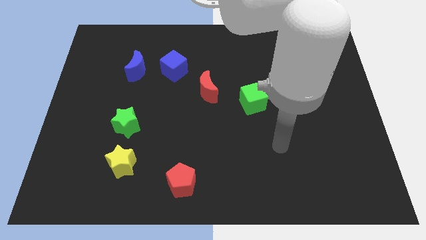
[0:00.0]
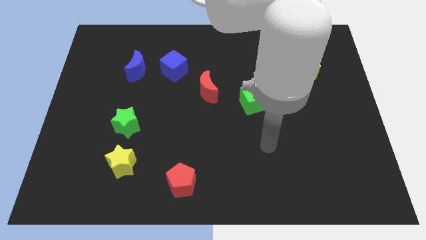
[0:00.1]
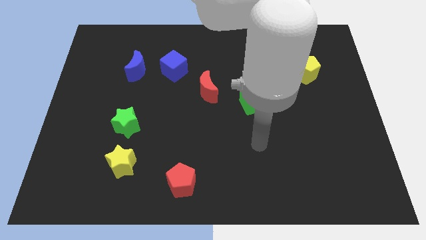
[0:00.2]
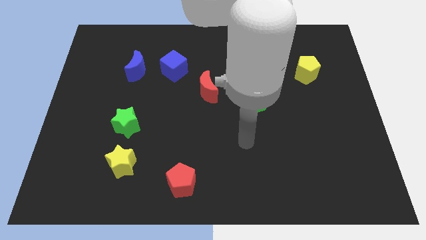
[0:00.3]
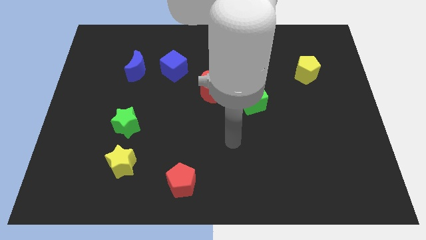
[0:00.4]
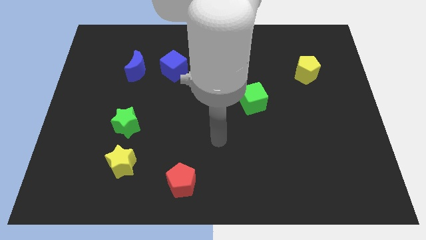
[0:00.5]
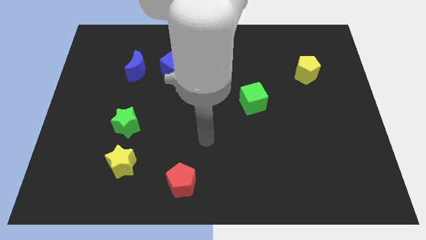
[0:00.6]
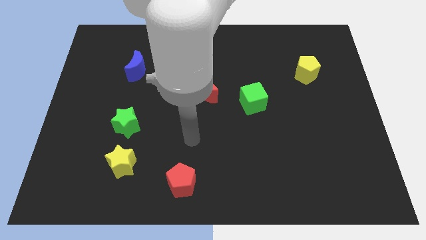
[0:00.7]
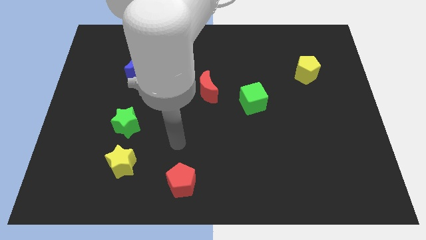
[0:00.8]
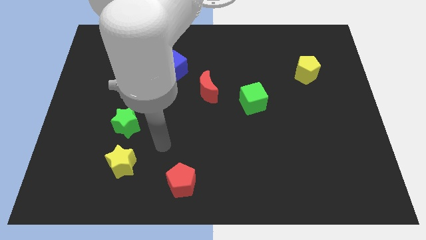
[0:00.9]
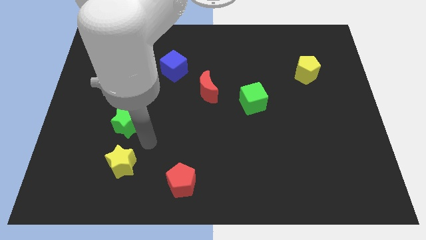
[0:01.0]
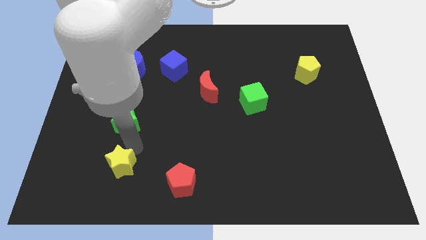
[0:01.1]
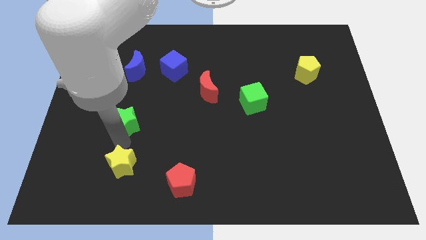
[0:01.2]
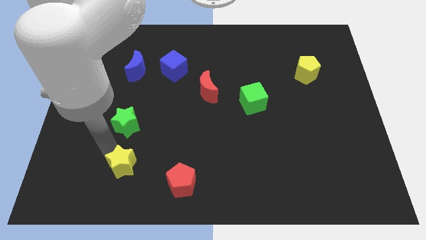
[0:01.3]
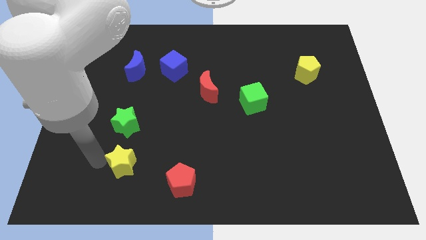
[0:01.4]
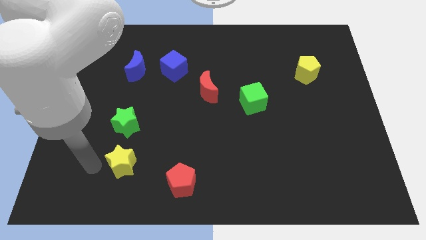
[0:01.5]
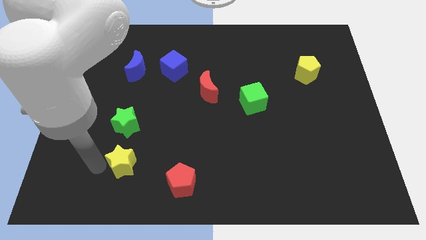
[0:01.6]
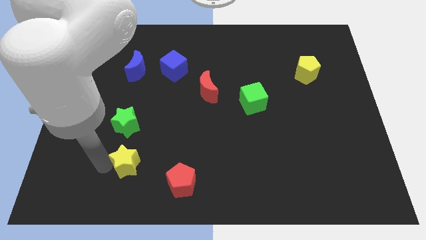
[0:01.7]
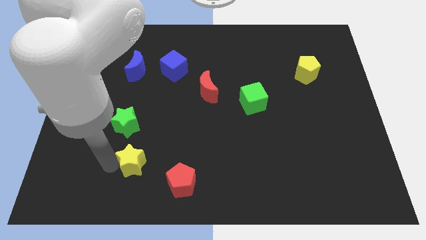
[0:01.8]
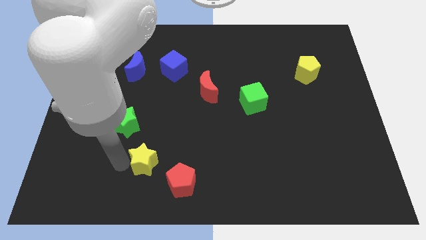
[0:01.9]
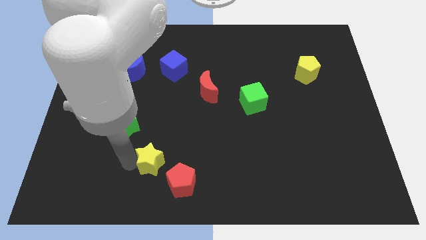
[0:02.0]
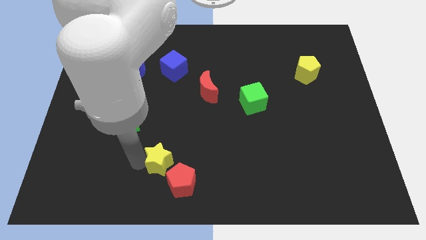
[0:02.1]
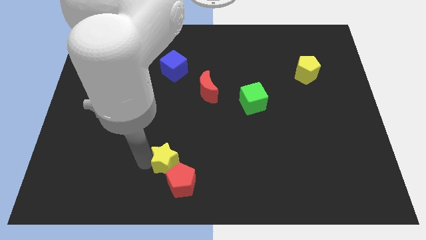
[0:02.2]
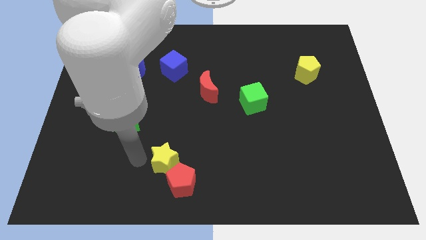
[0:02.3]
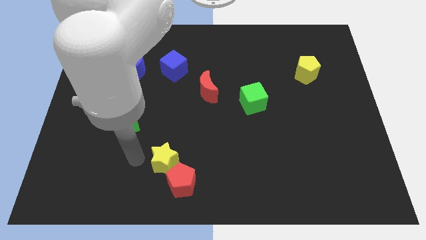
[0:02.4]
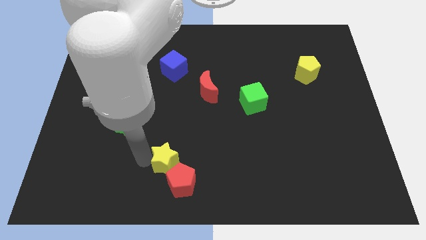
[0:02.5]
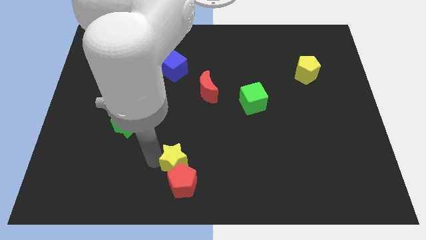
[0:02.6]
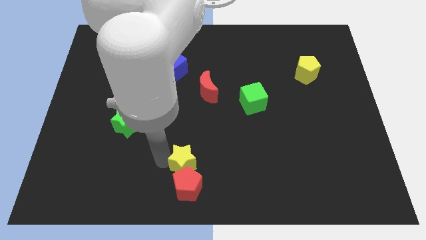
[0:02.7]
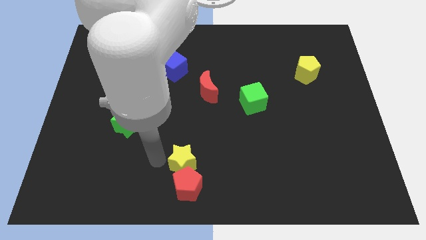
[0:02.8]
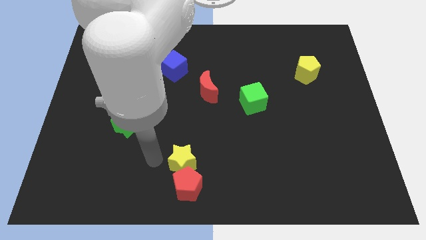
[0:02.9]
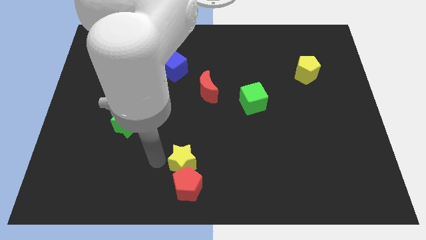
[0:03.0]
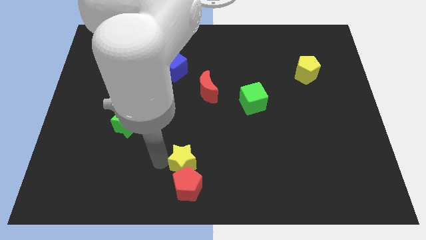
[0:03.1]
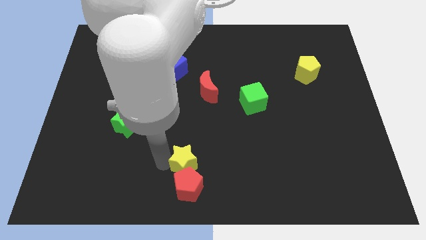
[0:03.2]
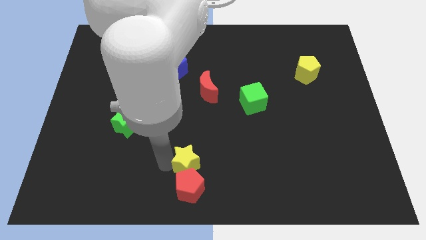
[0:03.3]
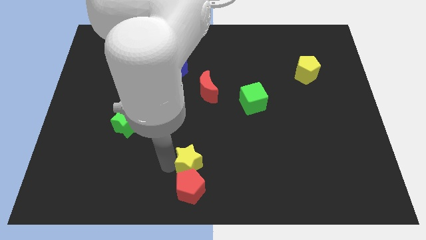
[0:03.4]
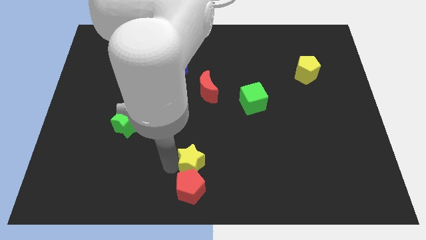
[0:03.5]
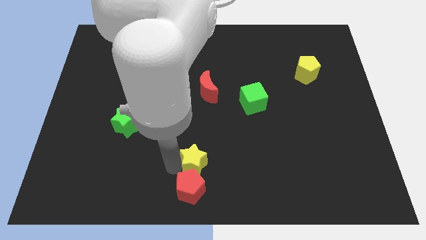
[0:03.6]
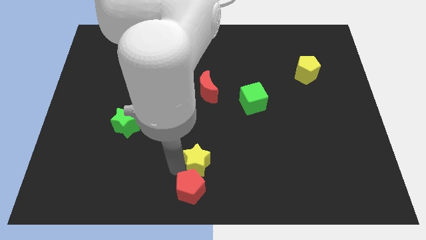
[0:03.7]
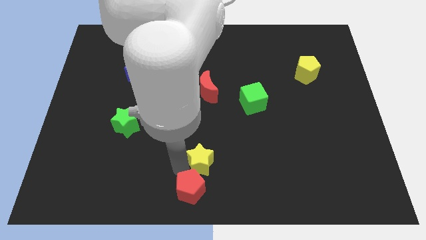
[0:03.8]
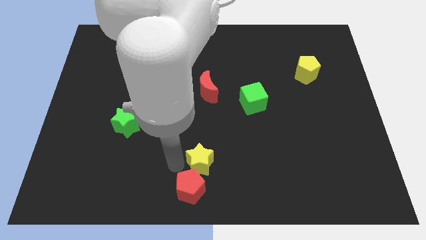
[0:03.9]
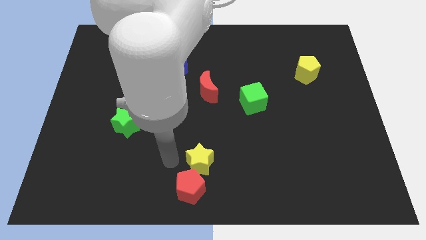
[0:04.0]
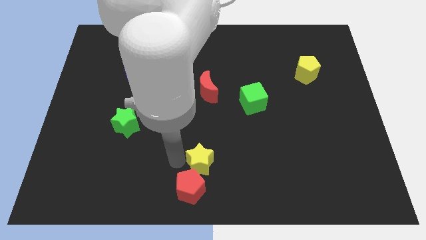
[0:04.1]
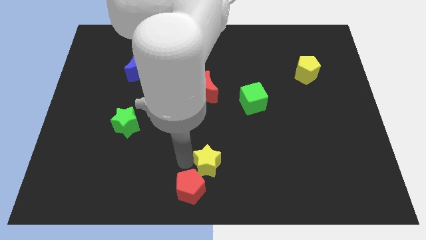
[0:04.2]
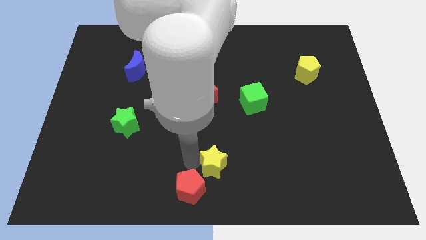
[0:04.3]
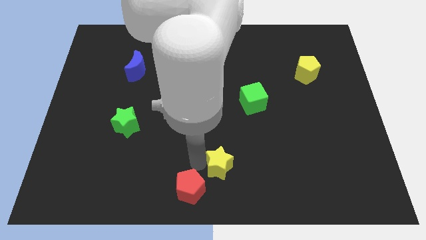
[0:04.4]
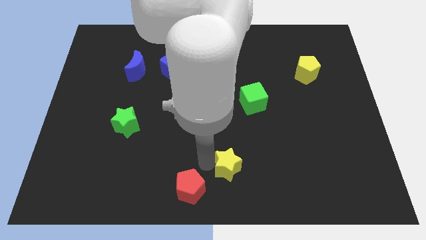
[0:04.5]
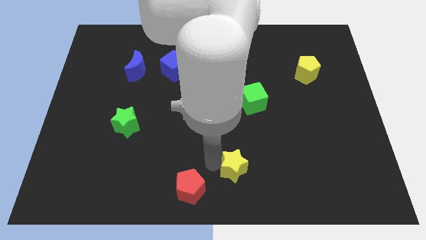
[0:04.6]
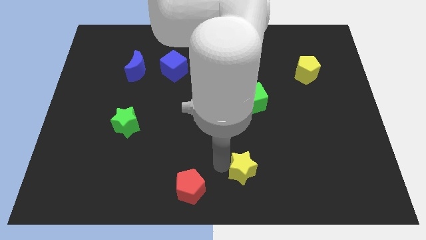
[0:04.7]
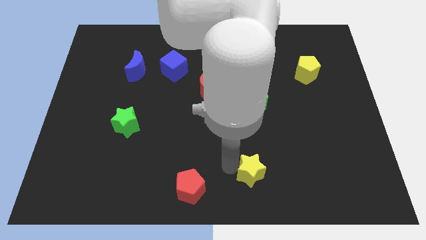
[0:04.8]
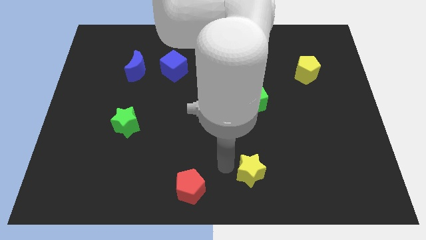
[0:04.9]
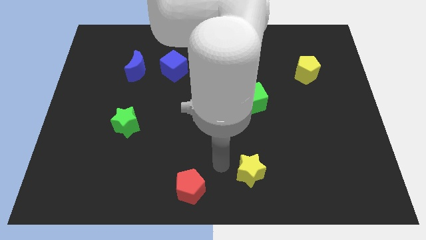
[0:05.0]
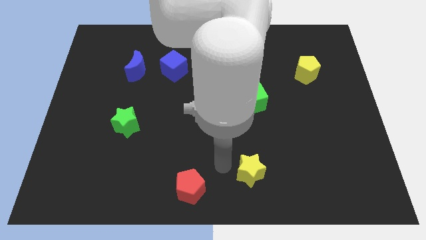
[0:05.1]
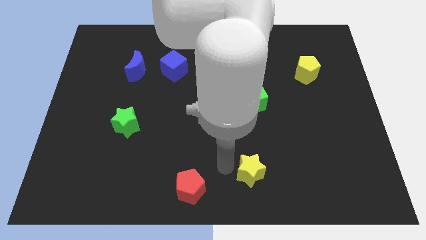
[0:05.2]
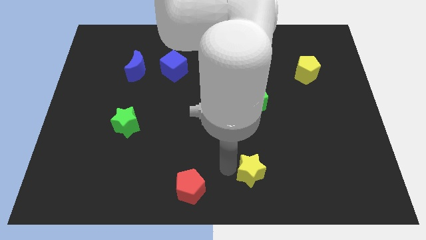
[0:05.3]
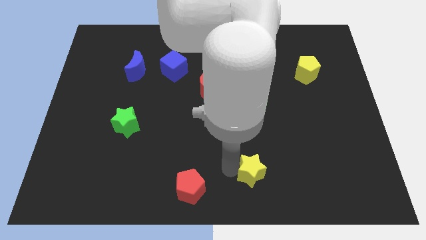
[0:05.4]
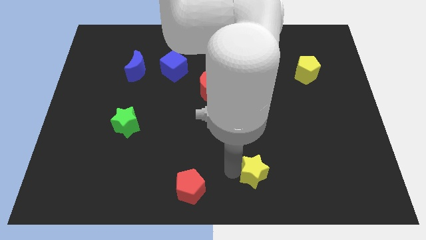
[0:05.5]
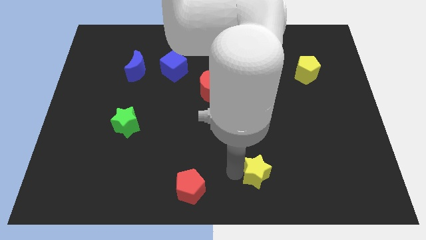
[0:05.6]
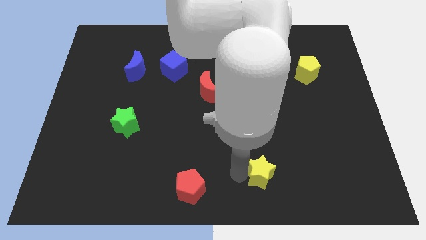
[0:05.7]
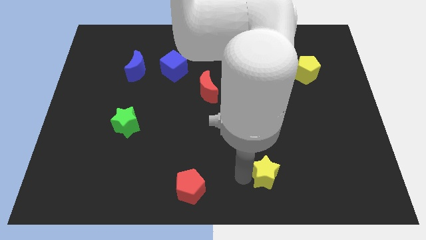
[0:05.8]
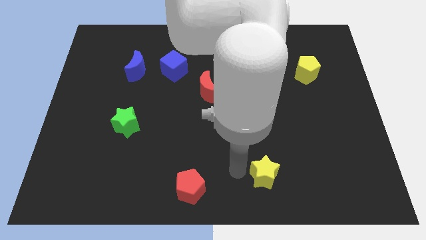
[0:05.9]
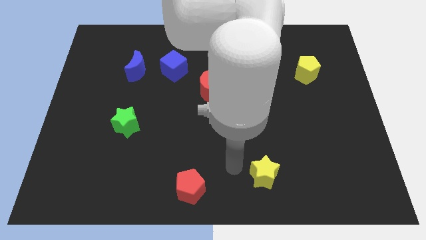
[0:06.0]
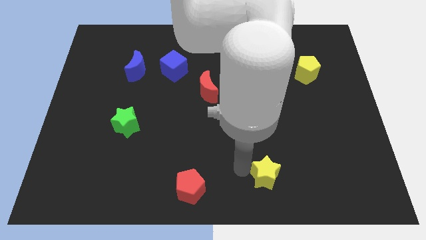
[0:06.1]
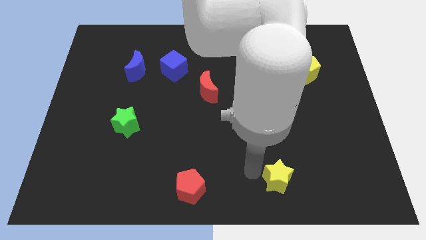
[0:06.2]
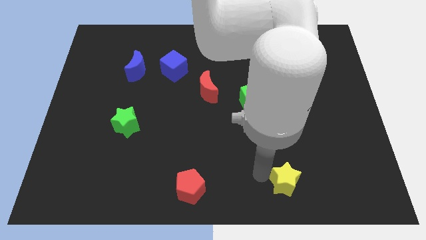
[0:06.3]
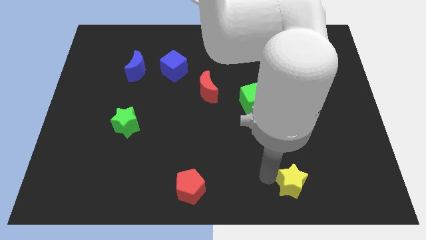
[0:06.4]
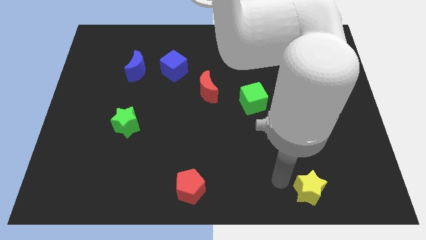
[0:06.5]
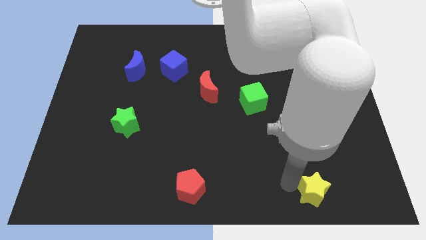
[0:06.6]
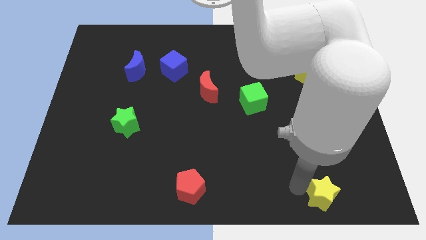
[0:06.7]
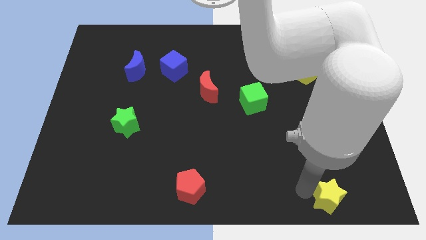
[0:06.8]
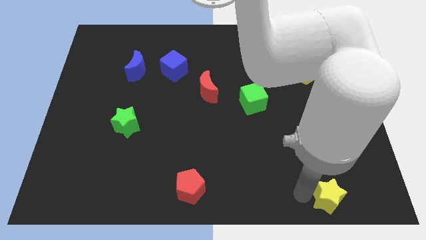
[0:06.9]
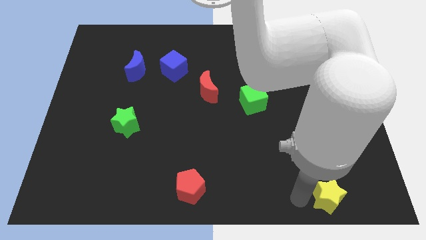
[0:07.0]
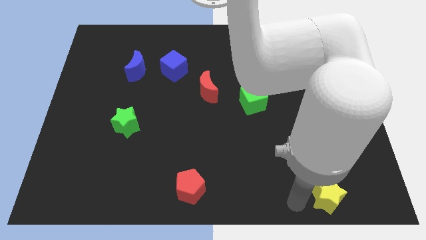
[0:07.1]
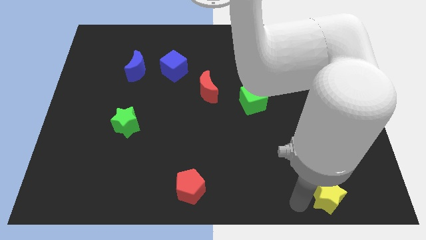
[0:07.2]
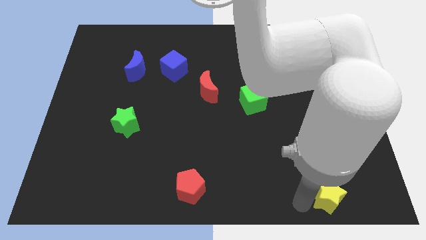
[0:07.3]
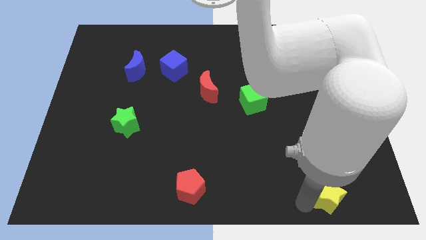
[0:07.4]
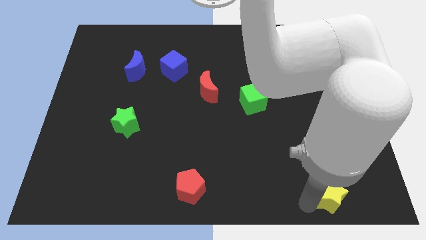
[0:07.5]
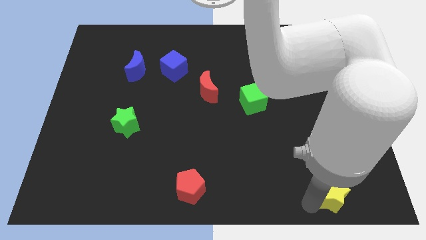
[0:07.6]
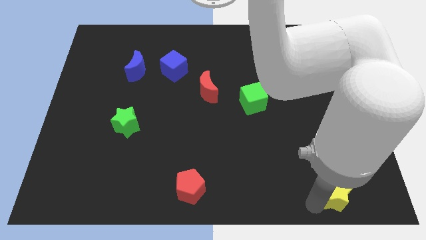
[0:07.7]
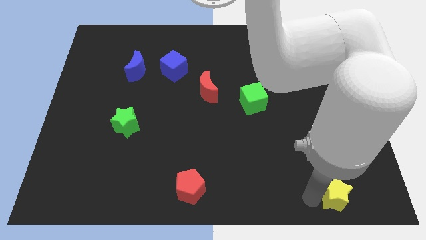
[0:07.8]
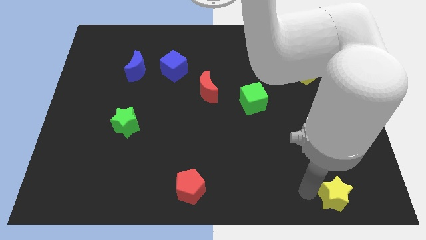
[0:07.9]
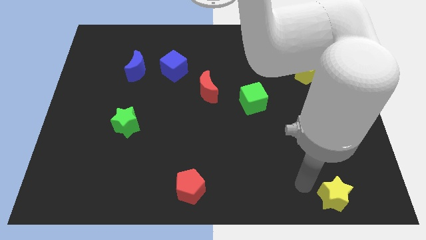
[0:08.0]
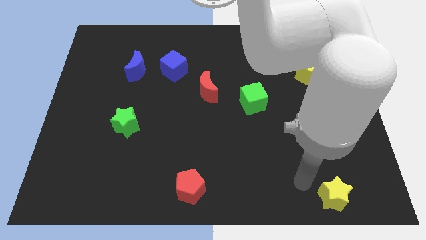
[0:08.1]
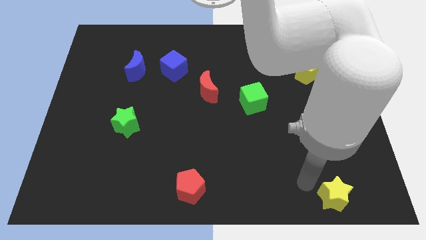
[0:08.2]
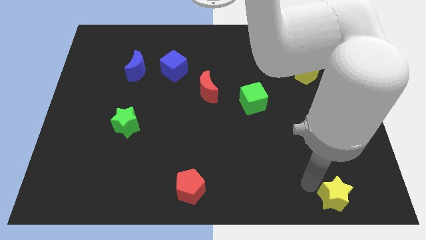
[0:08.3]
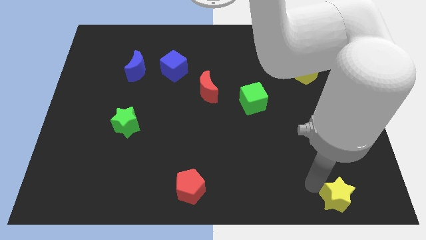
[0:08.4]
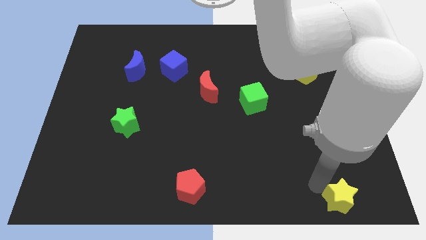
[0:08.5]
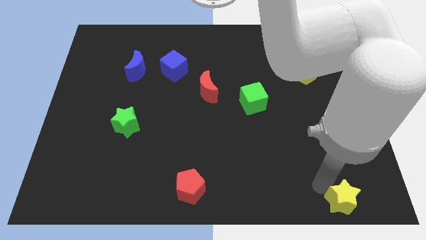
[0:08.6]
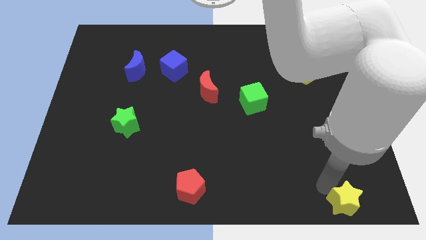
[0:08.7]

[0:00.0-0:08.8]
put the yellow star to the bottom right
